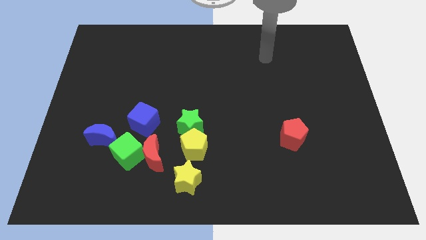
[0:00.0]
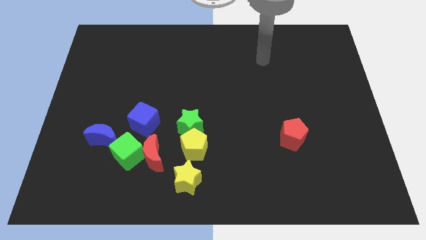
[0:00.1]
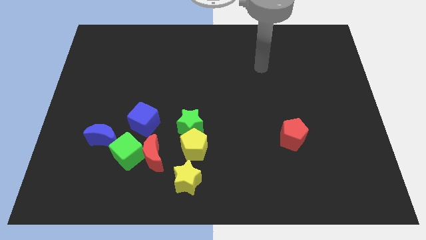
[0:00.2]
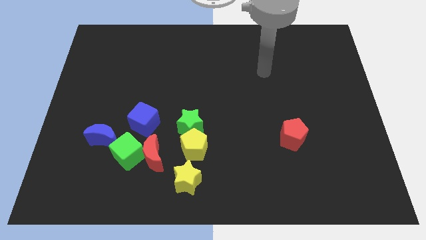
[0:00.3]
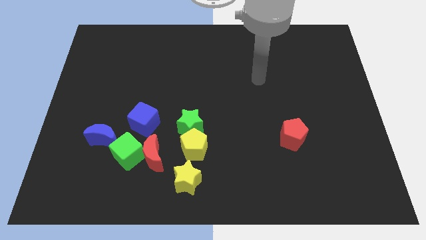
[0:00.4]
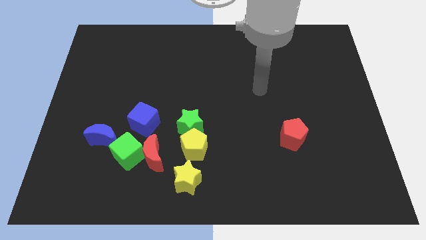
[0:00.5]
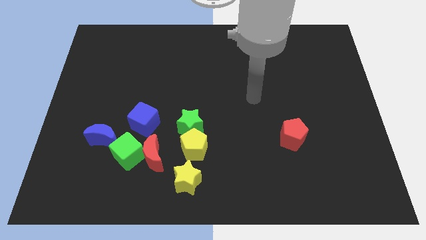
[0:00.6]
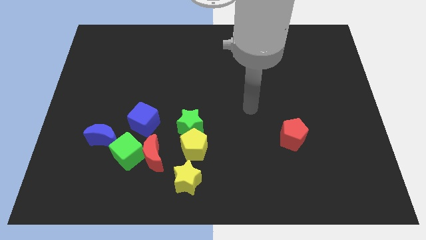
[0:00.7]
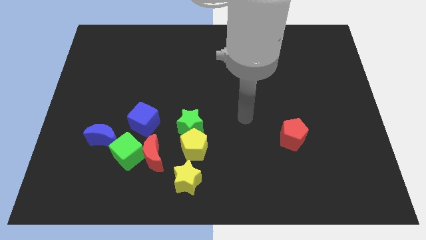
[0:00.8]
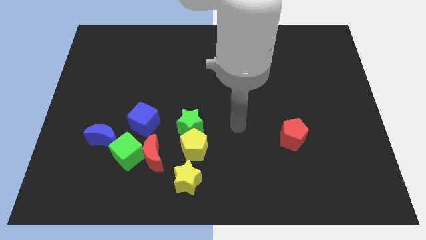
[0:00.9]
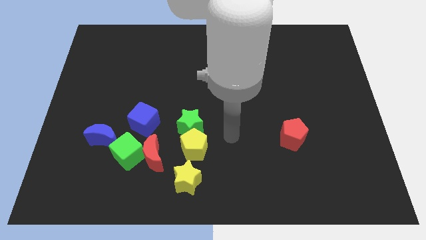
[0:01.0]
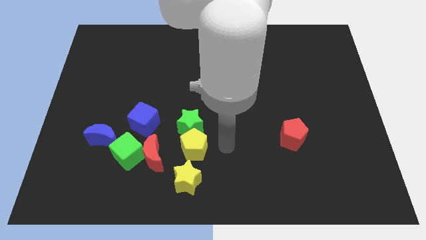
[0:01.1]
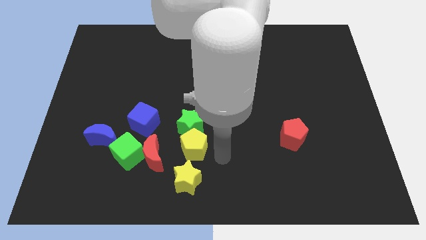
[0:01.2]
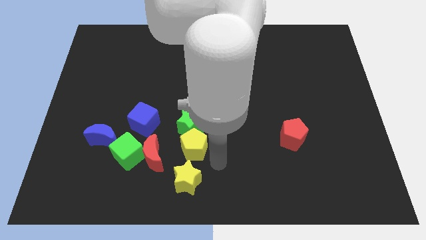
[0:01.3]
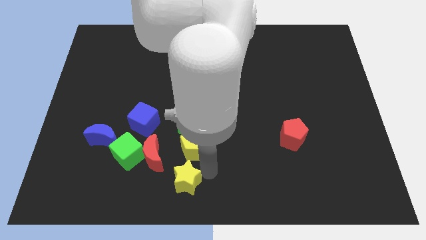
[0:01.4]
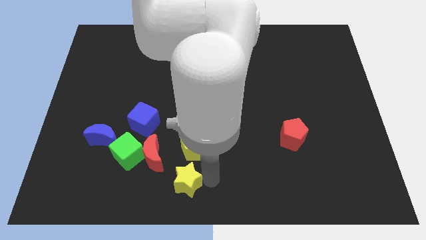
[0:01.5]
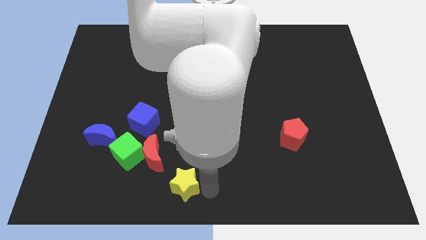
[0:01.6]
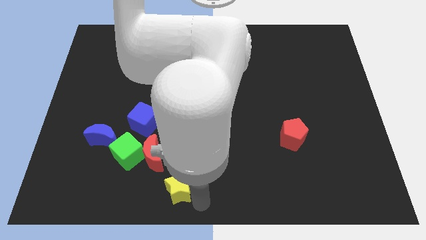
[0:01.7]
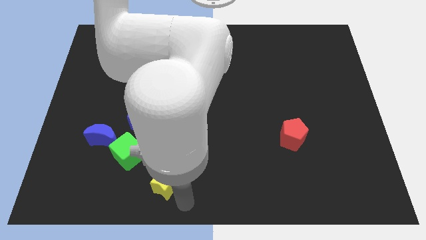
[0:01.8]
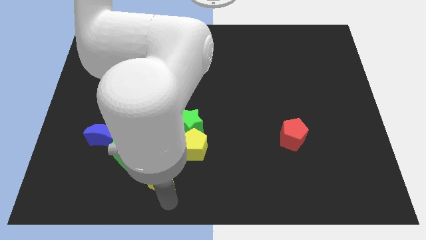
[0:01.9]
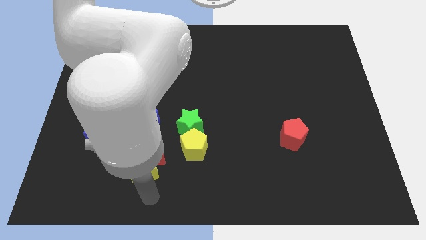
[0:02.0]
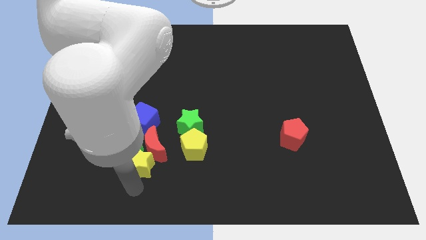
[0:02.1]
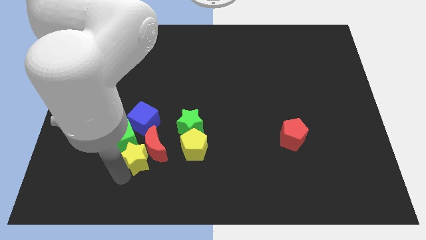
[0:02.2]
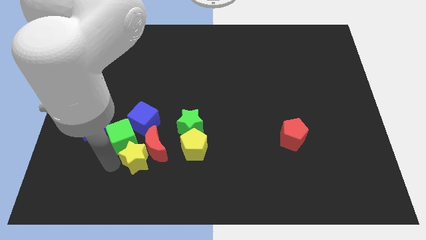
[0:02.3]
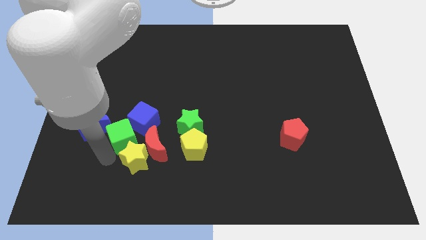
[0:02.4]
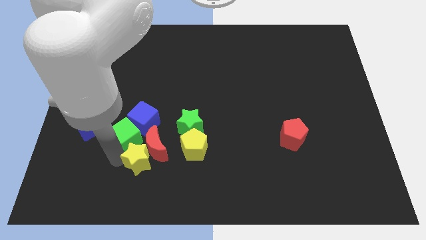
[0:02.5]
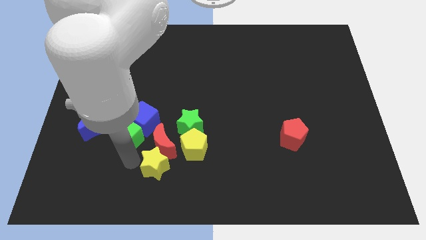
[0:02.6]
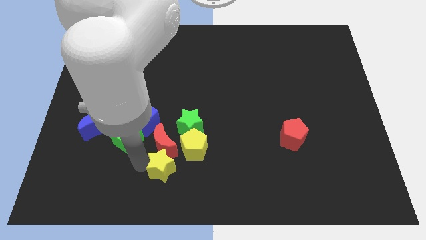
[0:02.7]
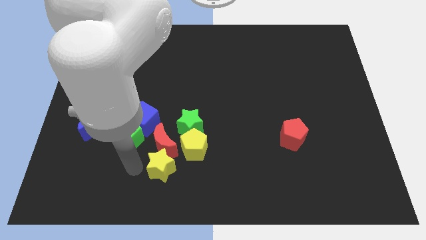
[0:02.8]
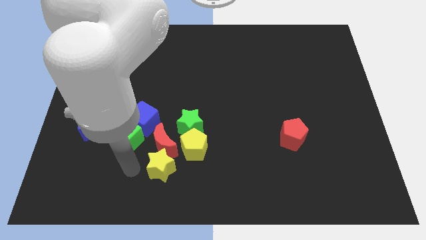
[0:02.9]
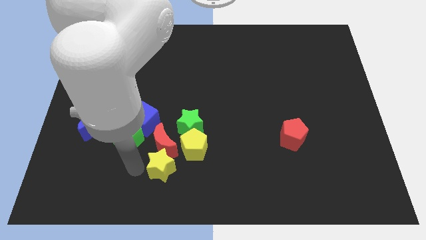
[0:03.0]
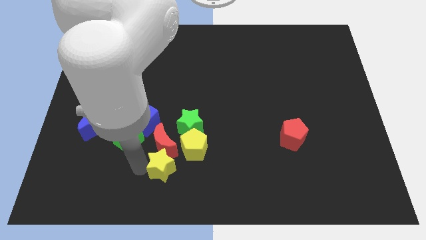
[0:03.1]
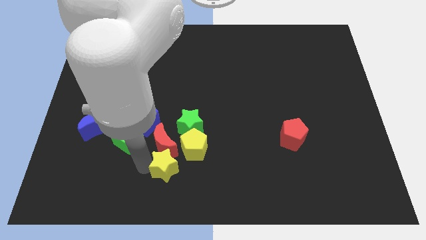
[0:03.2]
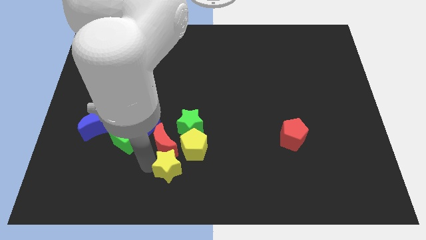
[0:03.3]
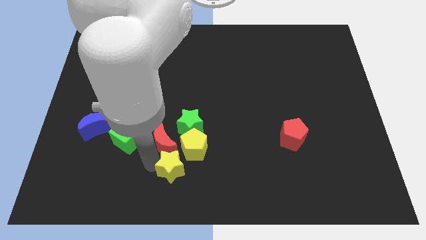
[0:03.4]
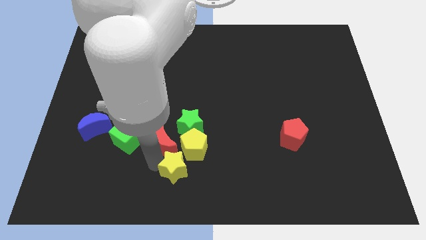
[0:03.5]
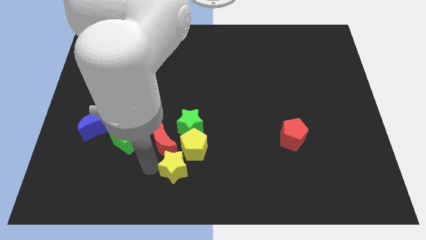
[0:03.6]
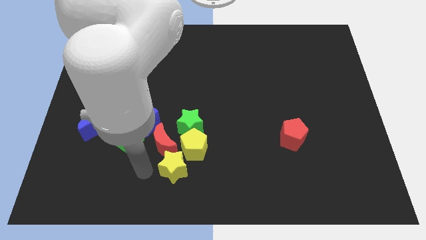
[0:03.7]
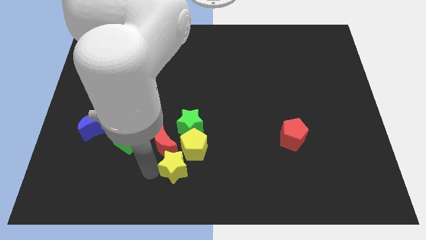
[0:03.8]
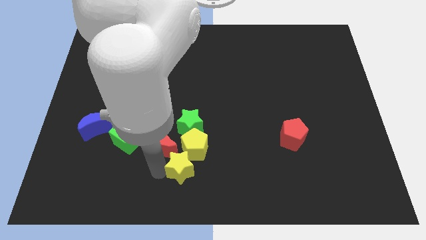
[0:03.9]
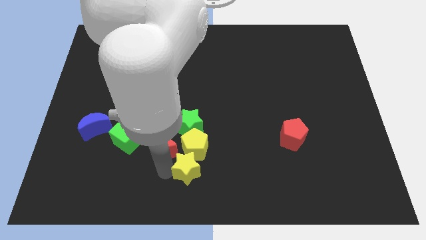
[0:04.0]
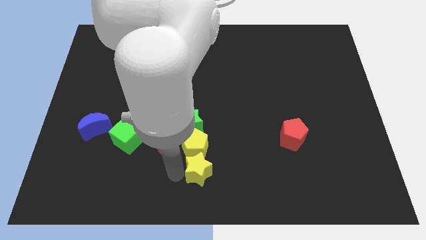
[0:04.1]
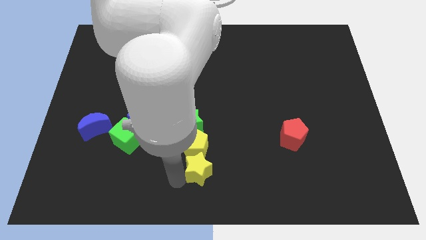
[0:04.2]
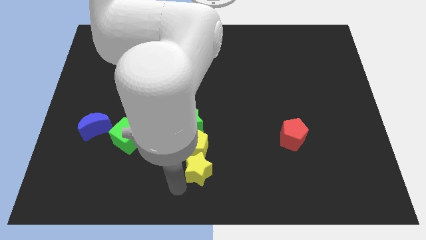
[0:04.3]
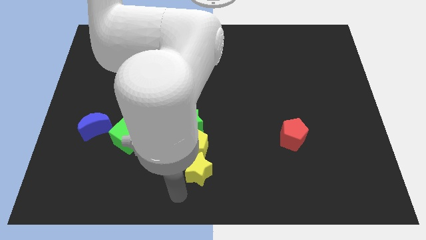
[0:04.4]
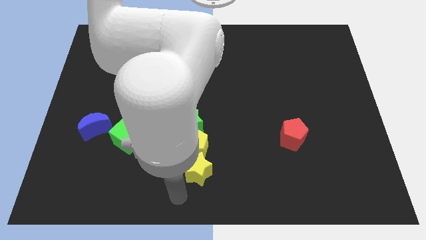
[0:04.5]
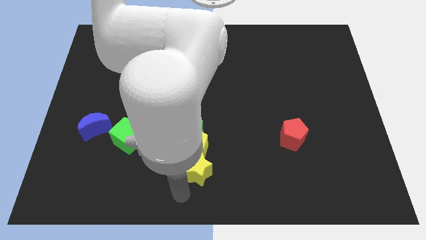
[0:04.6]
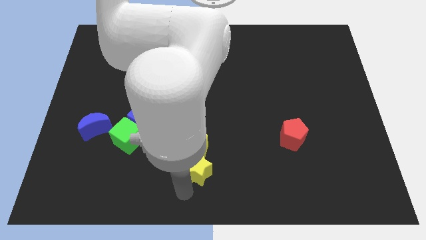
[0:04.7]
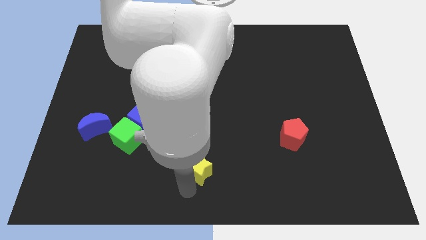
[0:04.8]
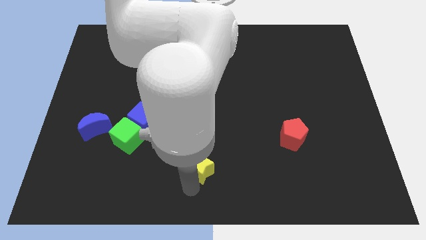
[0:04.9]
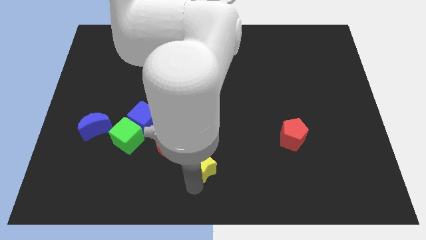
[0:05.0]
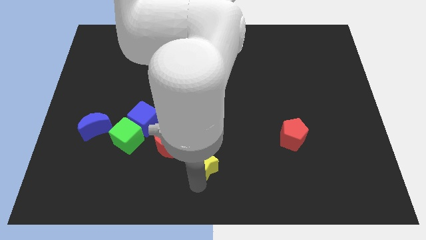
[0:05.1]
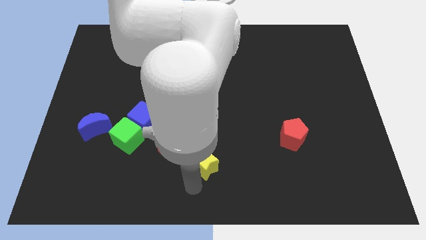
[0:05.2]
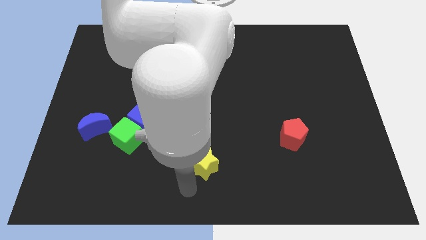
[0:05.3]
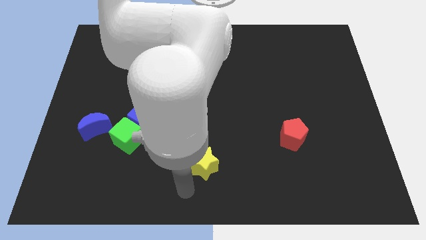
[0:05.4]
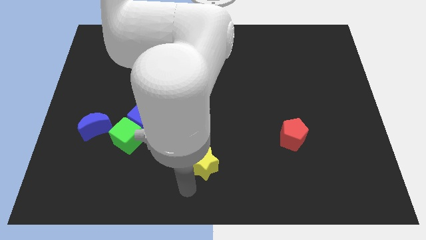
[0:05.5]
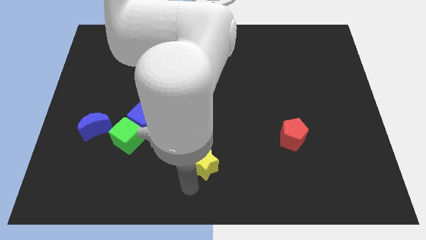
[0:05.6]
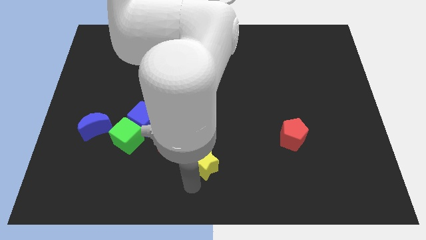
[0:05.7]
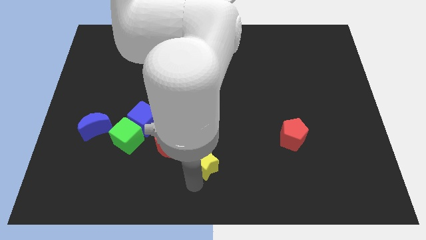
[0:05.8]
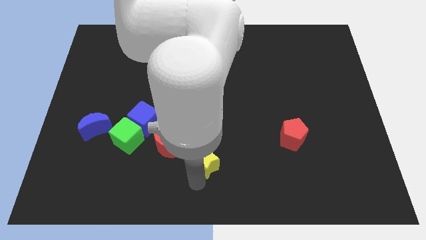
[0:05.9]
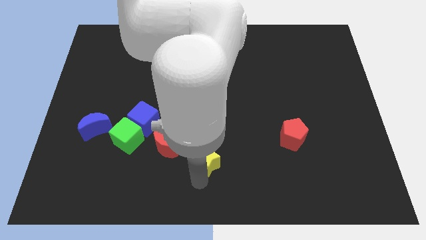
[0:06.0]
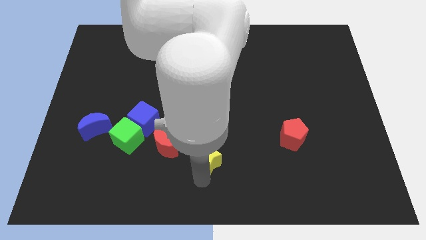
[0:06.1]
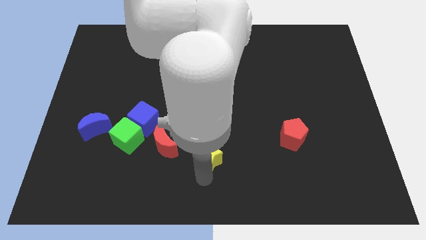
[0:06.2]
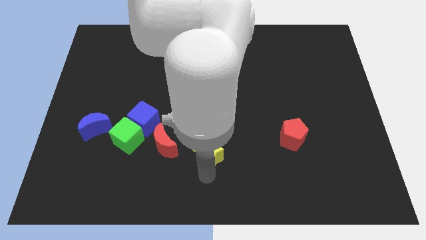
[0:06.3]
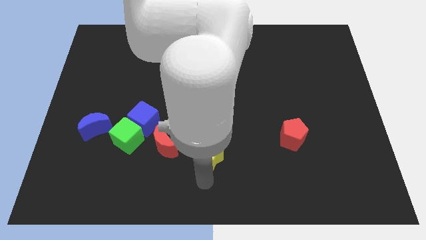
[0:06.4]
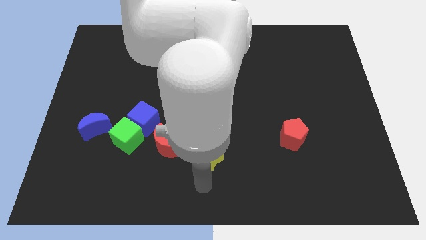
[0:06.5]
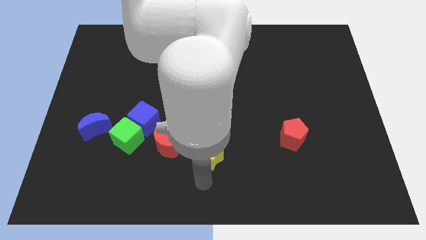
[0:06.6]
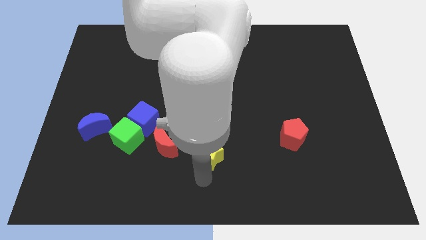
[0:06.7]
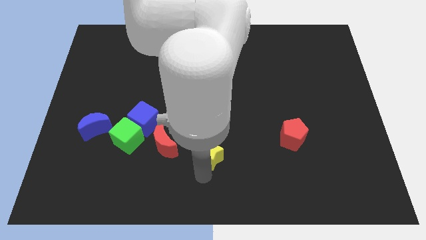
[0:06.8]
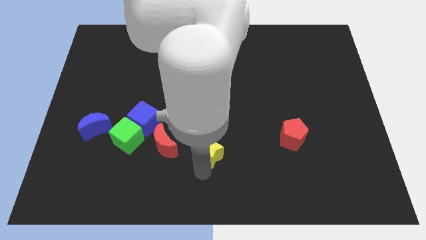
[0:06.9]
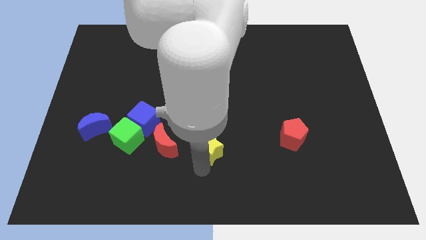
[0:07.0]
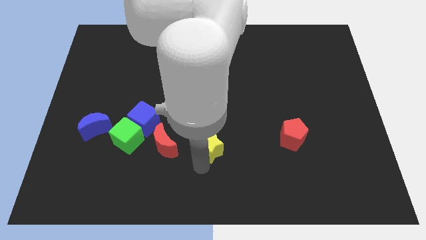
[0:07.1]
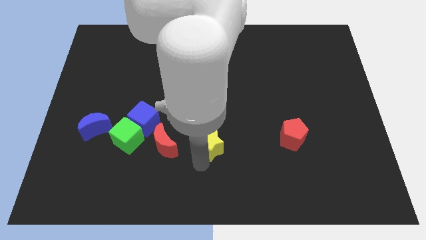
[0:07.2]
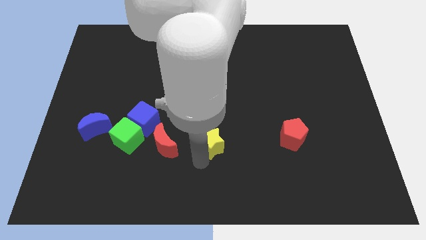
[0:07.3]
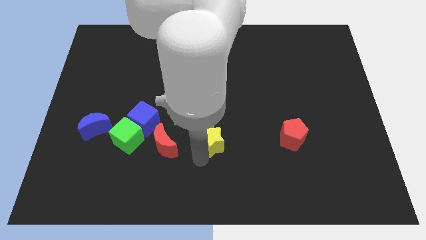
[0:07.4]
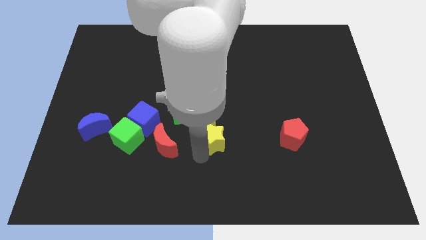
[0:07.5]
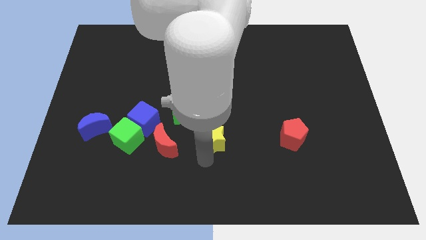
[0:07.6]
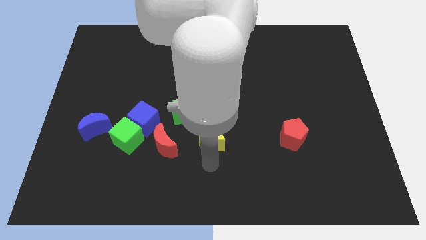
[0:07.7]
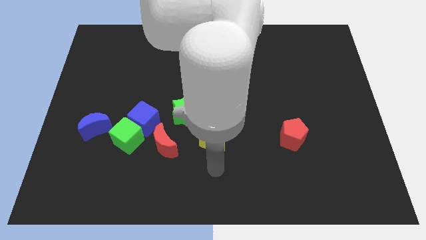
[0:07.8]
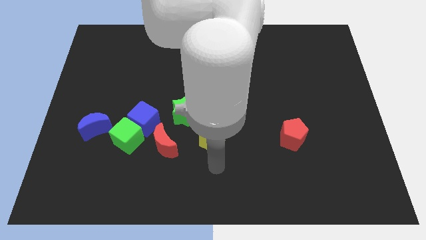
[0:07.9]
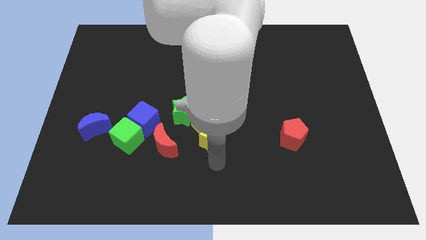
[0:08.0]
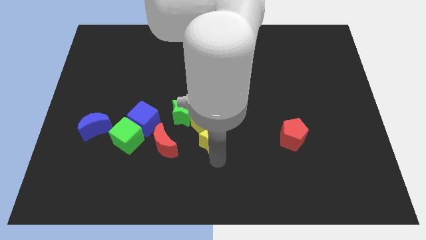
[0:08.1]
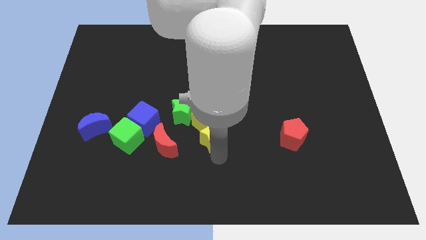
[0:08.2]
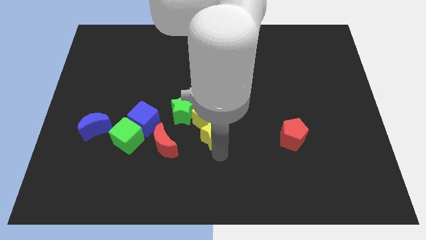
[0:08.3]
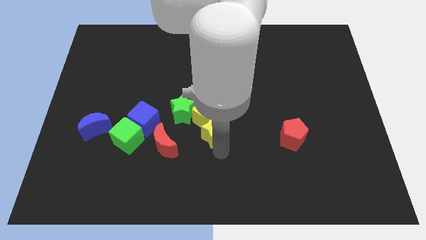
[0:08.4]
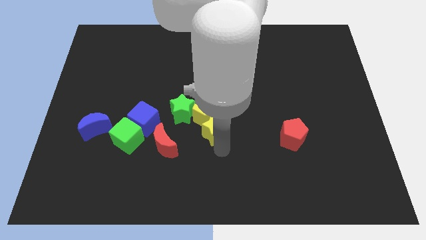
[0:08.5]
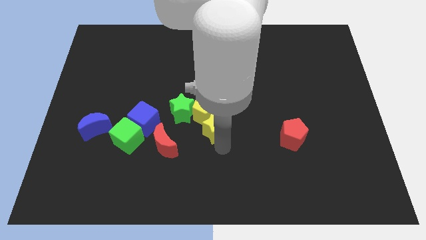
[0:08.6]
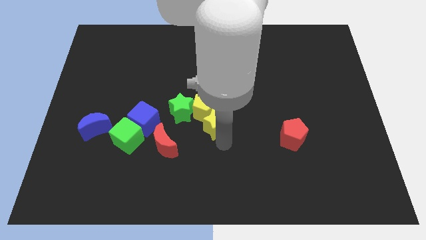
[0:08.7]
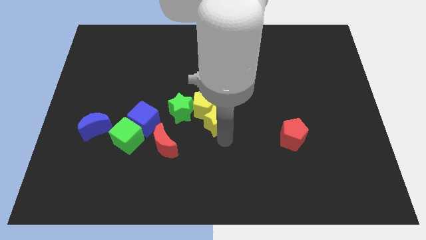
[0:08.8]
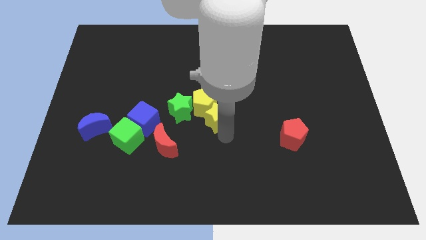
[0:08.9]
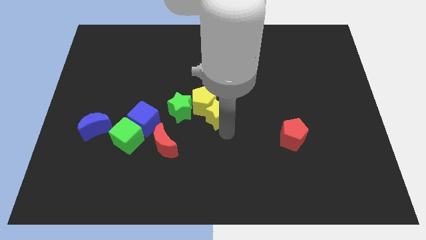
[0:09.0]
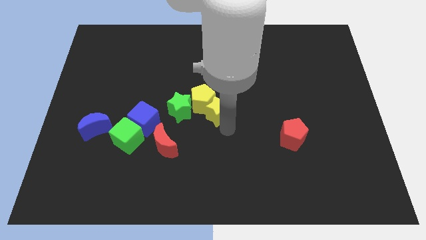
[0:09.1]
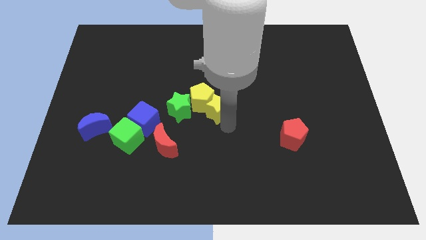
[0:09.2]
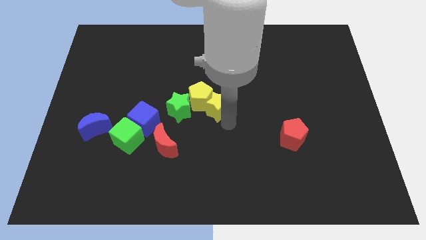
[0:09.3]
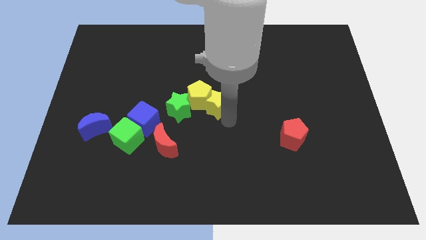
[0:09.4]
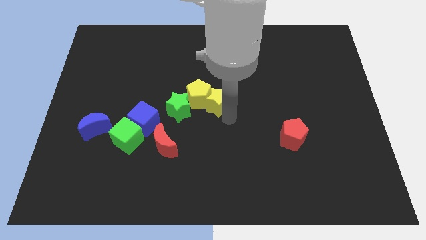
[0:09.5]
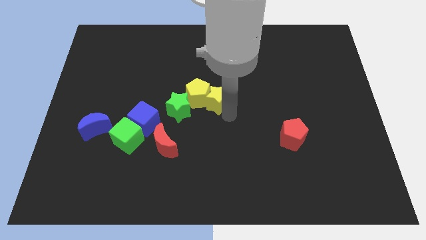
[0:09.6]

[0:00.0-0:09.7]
slide the yellow star diagonally up and to the right of the green star
